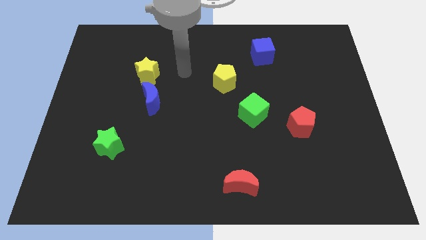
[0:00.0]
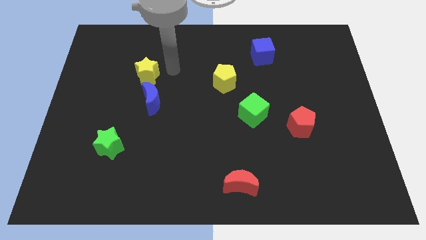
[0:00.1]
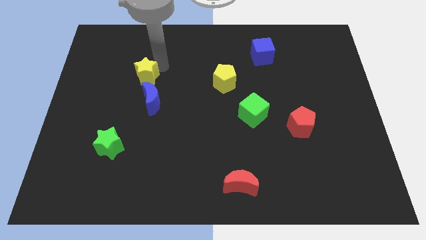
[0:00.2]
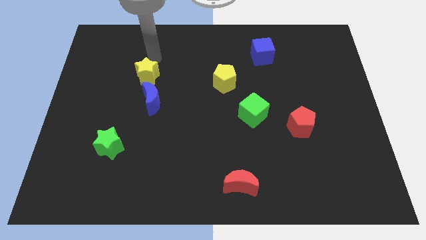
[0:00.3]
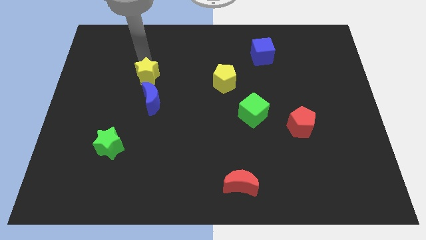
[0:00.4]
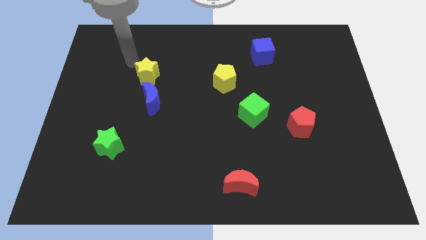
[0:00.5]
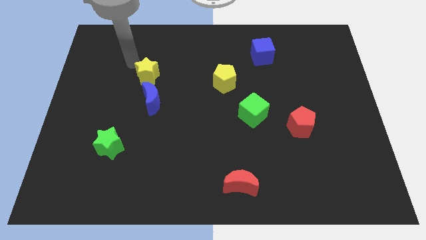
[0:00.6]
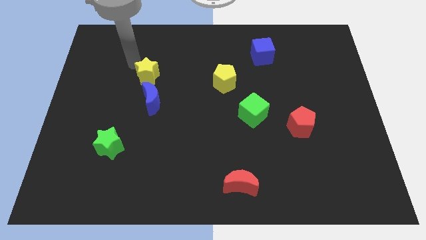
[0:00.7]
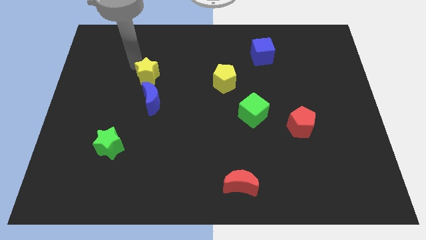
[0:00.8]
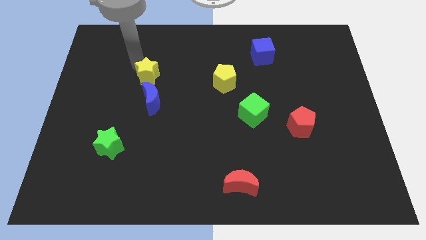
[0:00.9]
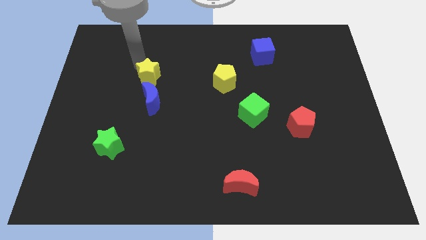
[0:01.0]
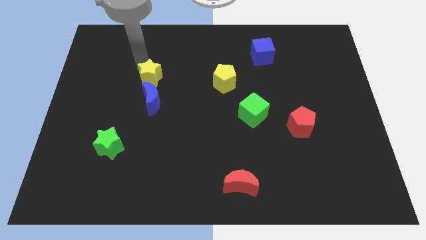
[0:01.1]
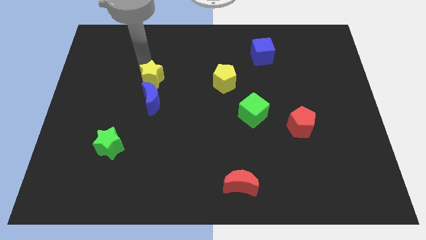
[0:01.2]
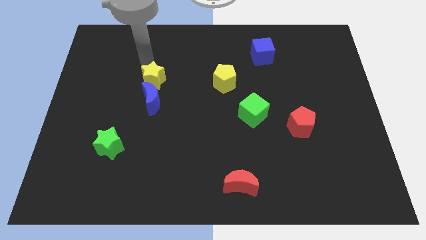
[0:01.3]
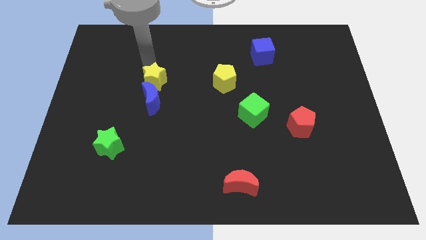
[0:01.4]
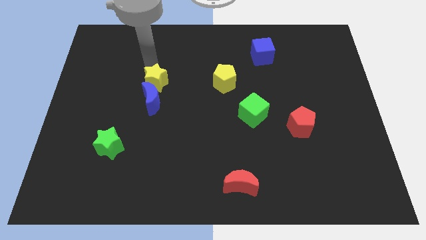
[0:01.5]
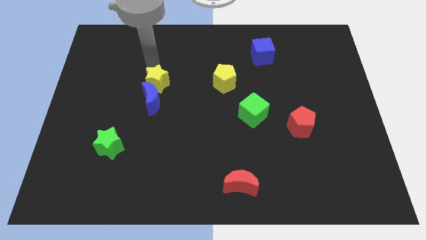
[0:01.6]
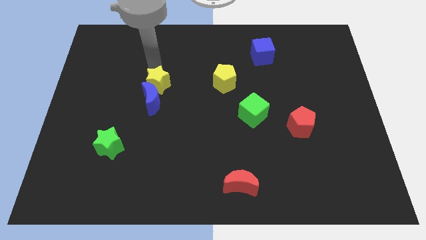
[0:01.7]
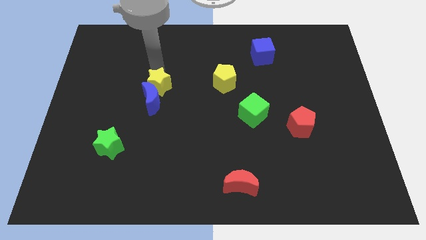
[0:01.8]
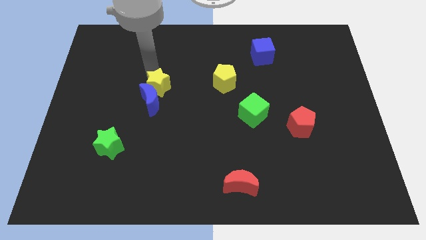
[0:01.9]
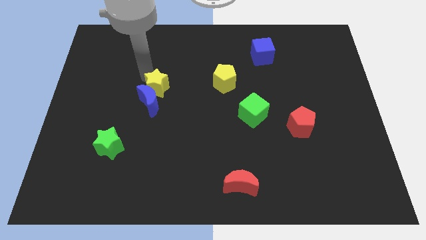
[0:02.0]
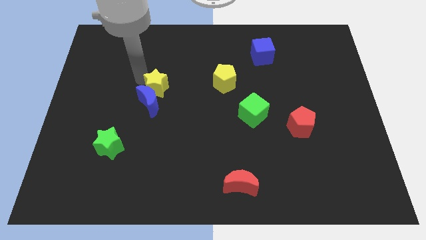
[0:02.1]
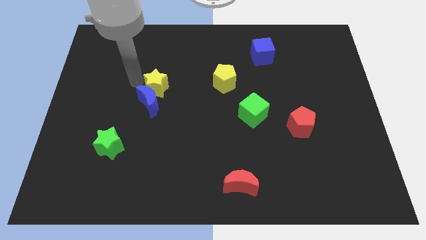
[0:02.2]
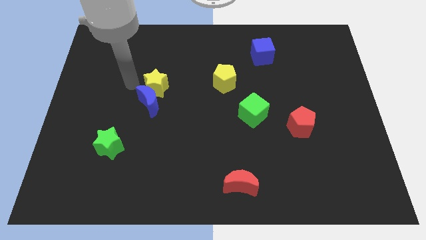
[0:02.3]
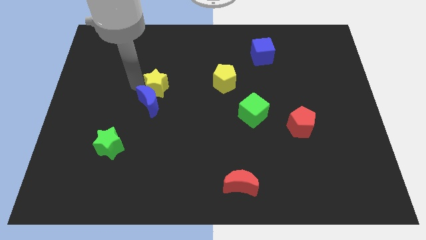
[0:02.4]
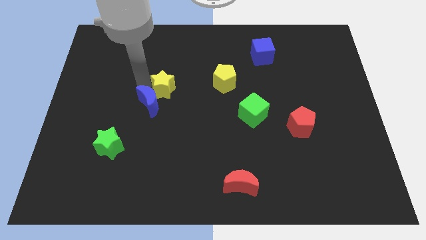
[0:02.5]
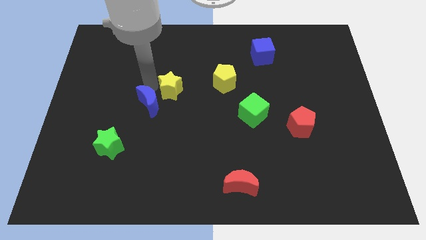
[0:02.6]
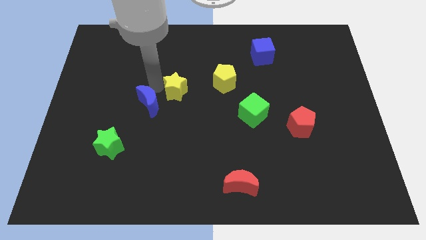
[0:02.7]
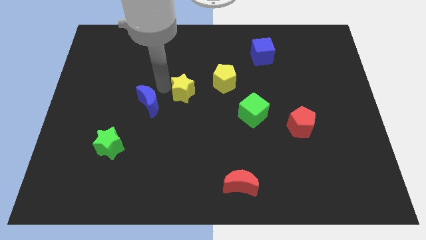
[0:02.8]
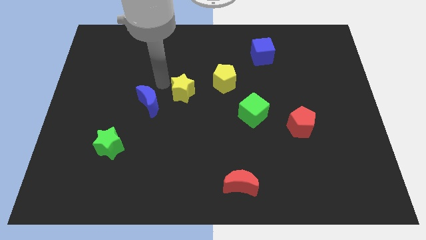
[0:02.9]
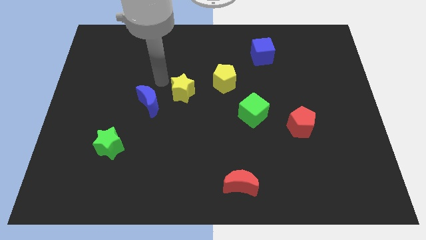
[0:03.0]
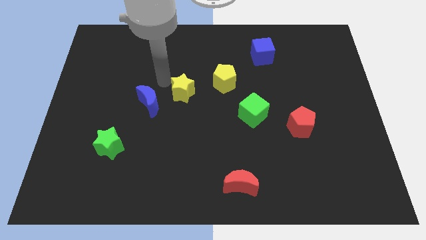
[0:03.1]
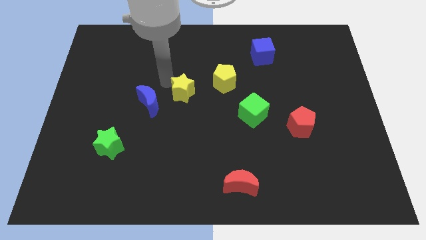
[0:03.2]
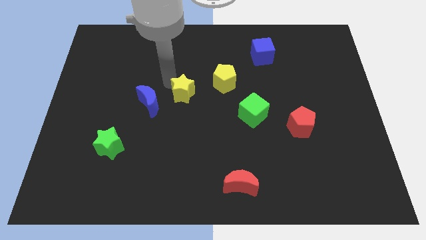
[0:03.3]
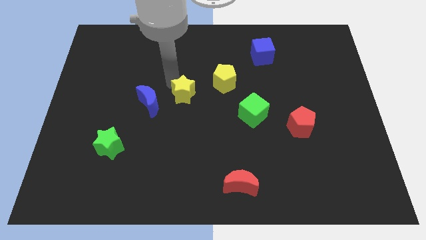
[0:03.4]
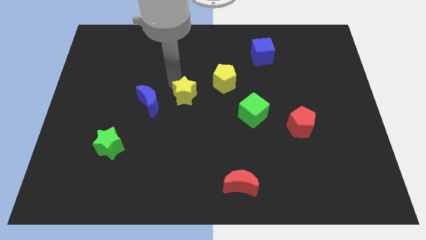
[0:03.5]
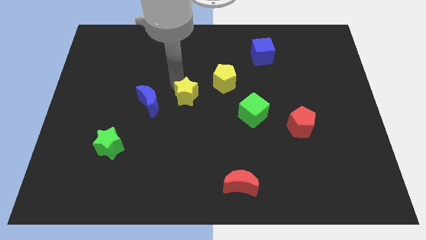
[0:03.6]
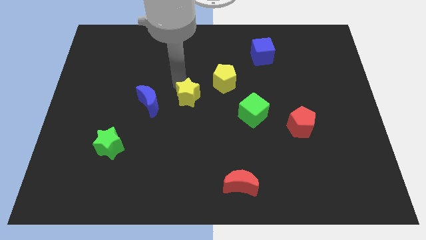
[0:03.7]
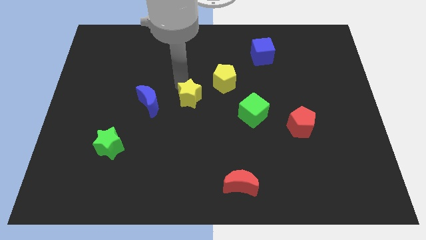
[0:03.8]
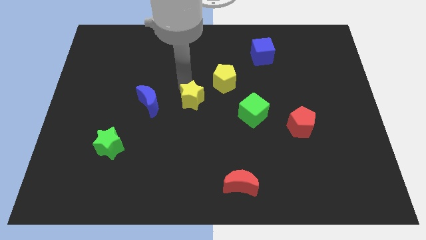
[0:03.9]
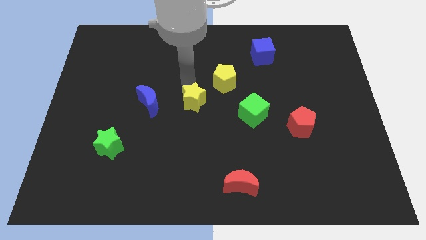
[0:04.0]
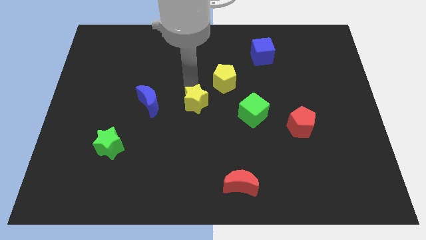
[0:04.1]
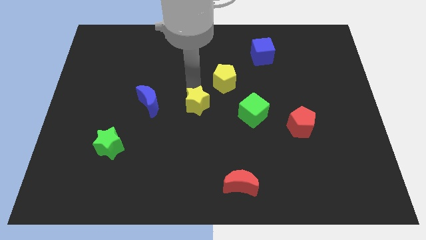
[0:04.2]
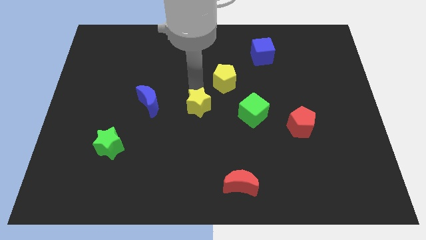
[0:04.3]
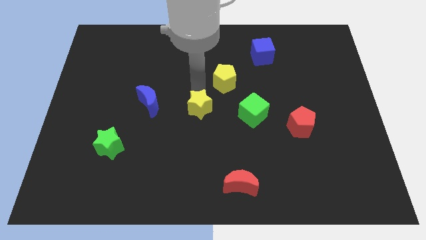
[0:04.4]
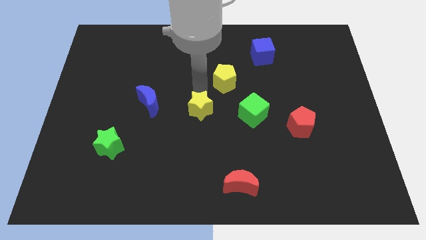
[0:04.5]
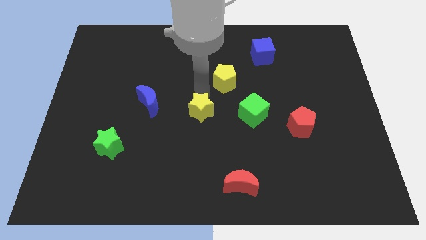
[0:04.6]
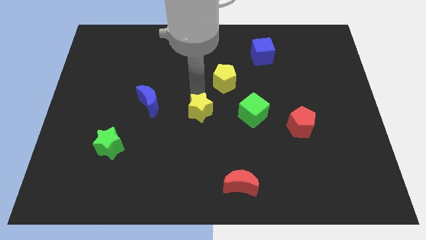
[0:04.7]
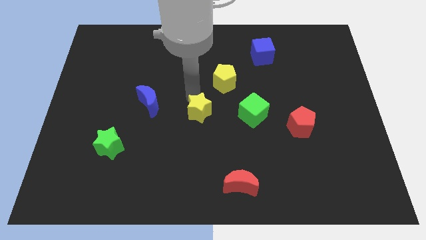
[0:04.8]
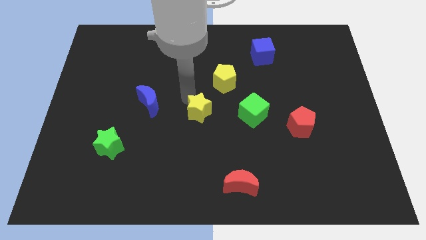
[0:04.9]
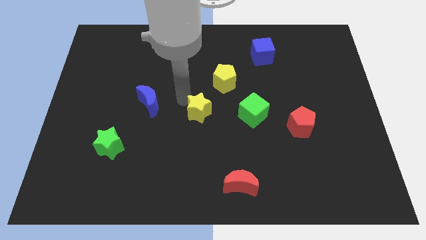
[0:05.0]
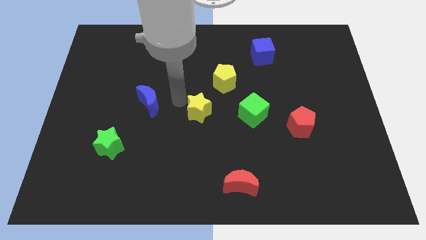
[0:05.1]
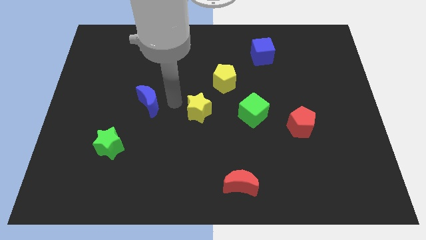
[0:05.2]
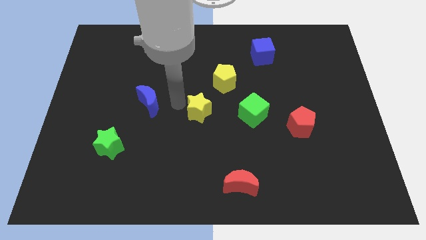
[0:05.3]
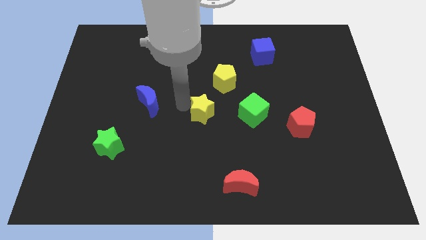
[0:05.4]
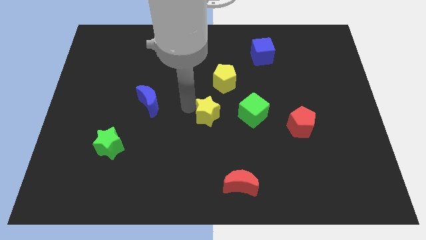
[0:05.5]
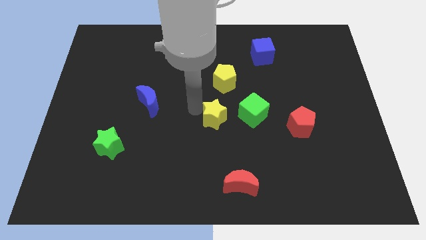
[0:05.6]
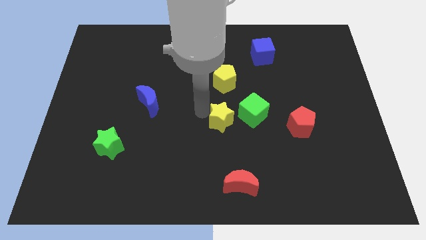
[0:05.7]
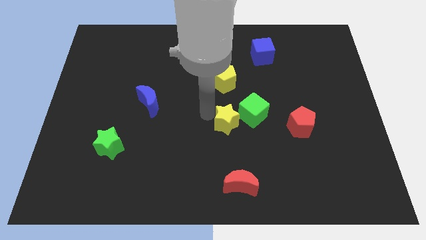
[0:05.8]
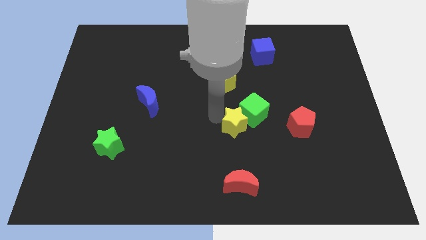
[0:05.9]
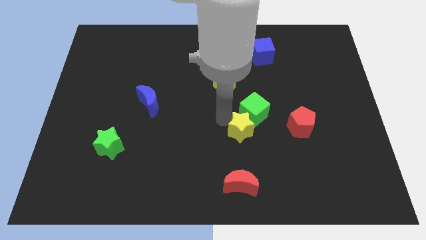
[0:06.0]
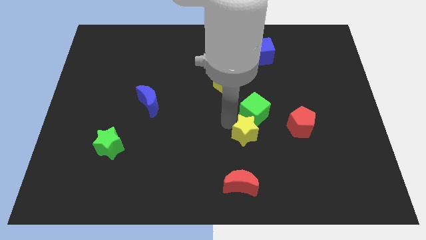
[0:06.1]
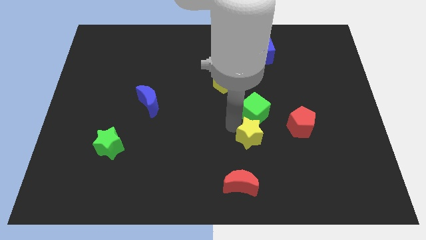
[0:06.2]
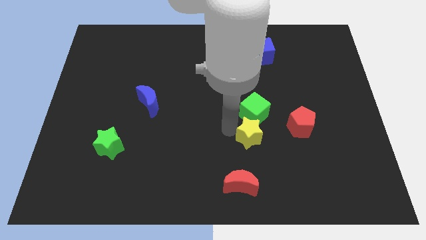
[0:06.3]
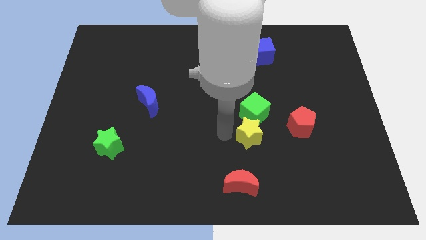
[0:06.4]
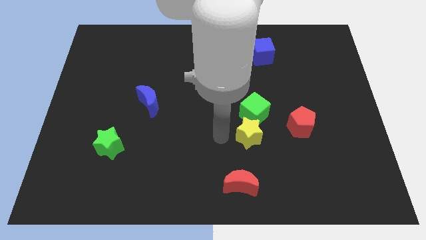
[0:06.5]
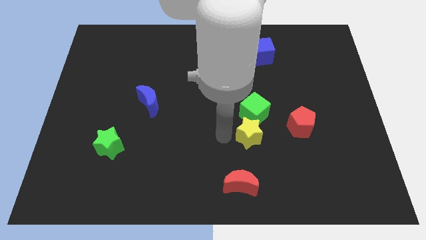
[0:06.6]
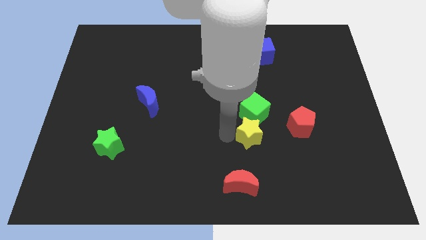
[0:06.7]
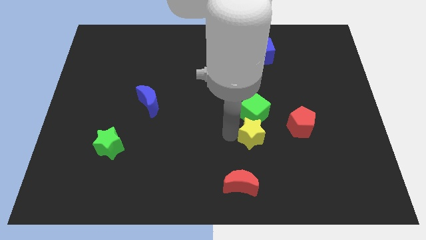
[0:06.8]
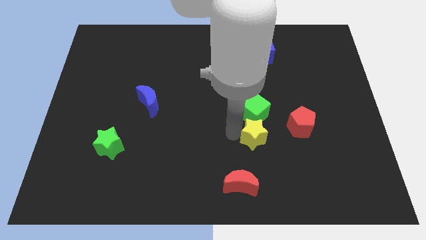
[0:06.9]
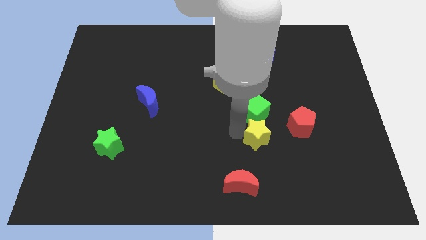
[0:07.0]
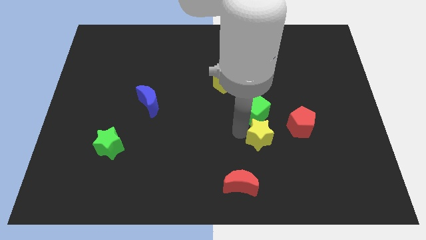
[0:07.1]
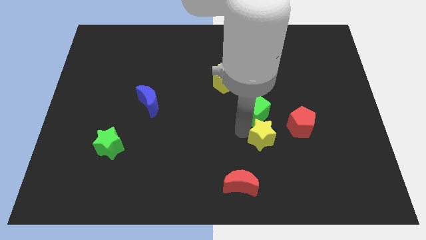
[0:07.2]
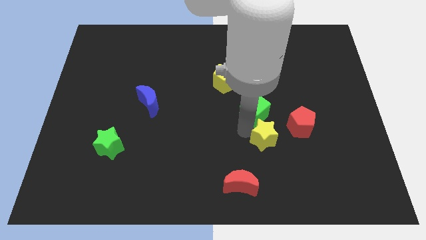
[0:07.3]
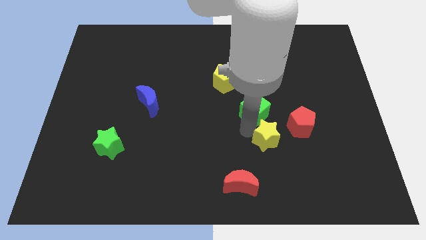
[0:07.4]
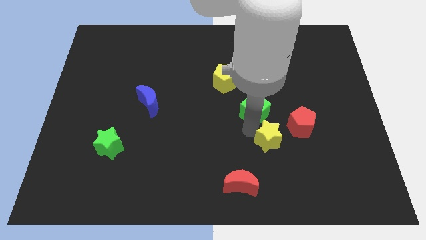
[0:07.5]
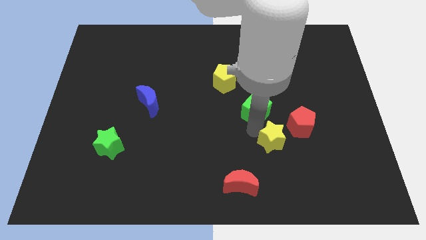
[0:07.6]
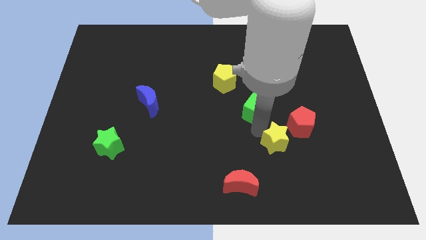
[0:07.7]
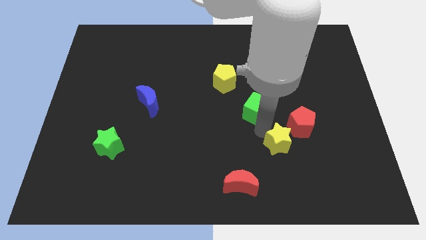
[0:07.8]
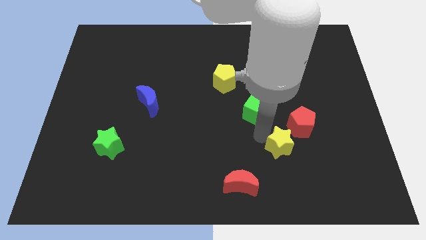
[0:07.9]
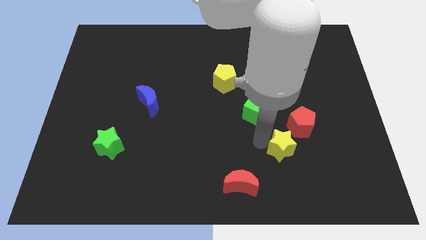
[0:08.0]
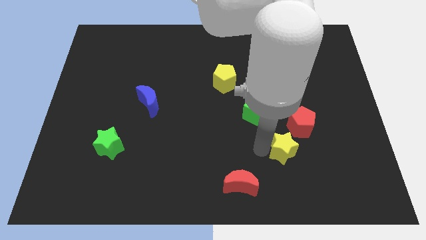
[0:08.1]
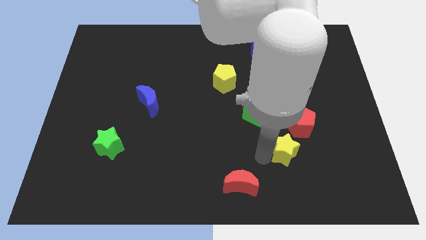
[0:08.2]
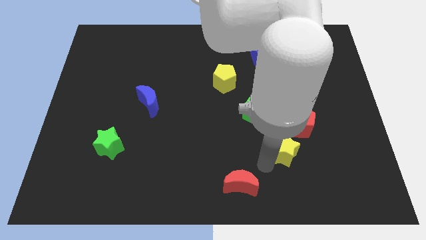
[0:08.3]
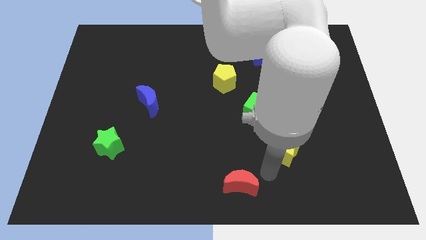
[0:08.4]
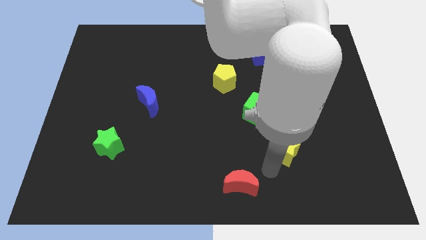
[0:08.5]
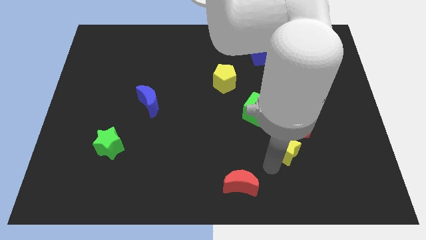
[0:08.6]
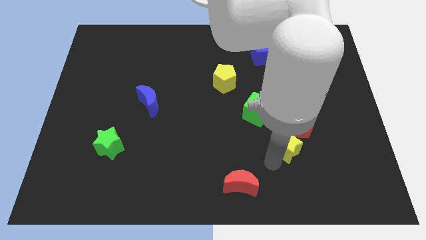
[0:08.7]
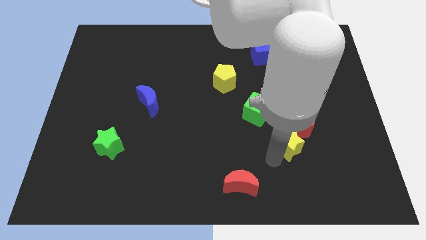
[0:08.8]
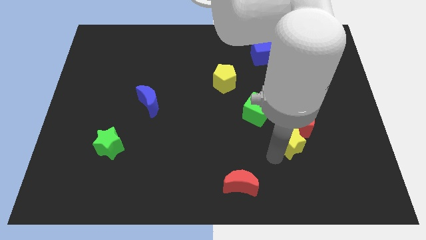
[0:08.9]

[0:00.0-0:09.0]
slide the yellow star close to the red pentagon
